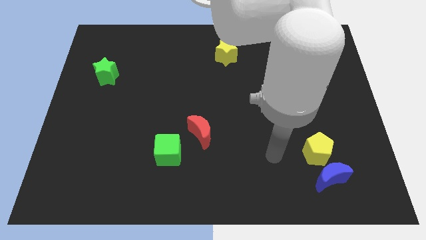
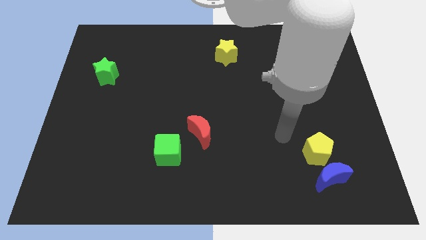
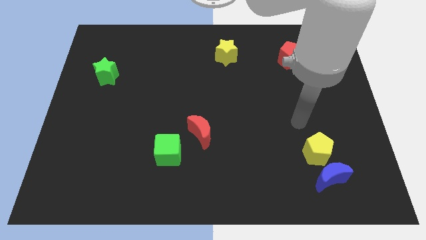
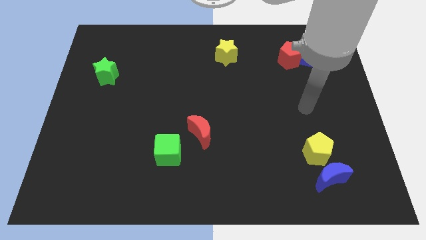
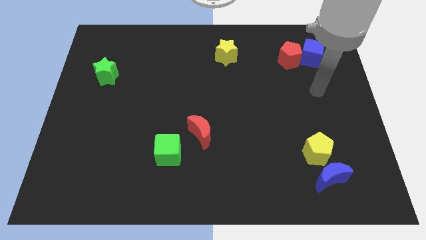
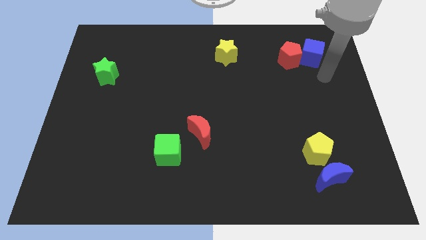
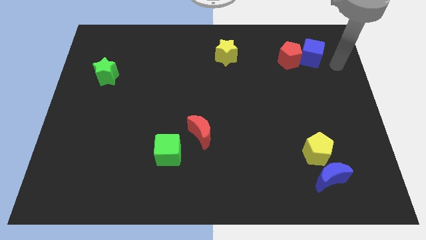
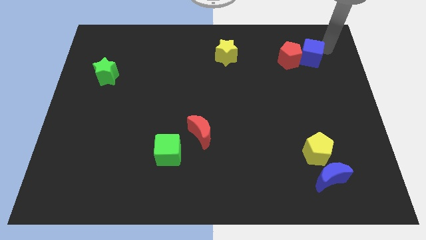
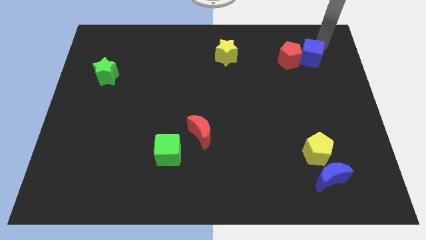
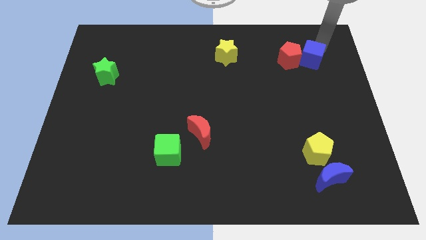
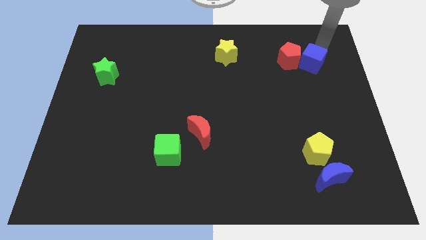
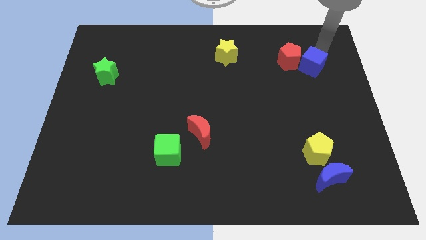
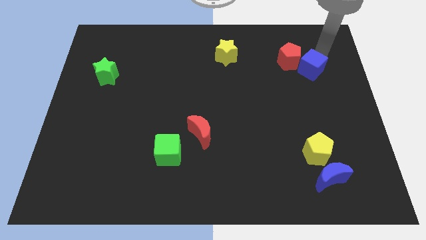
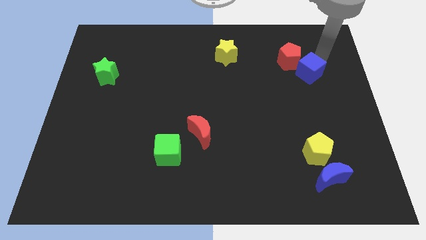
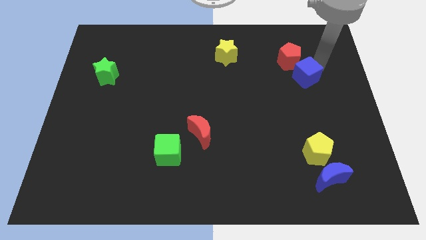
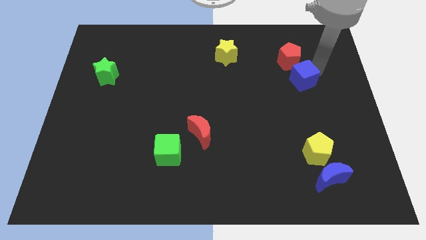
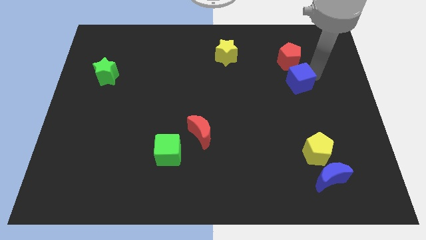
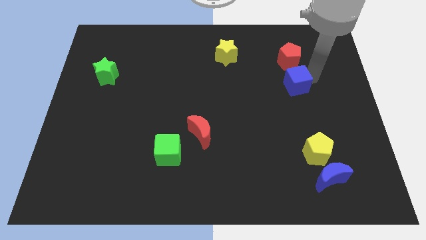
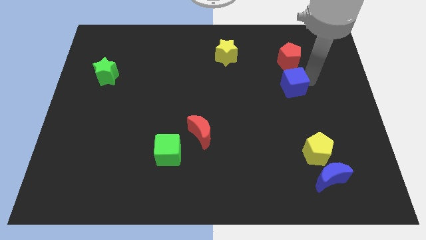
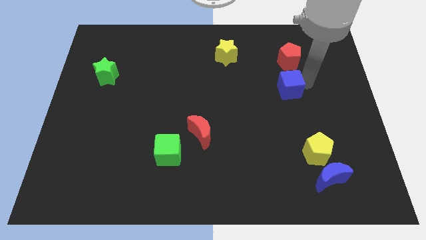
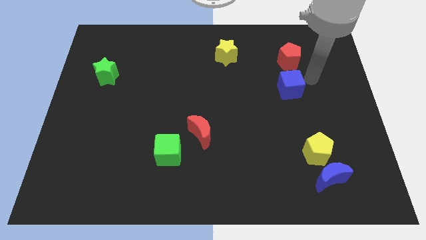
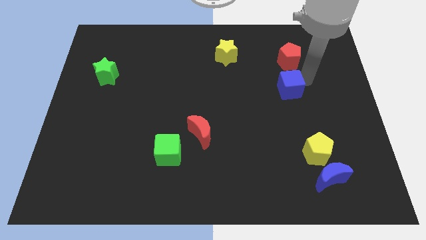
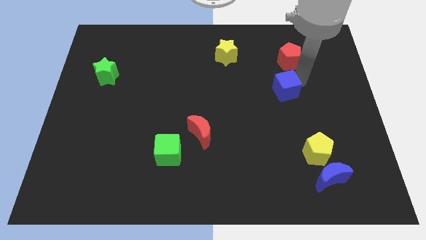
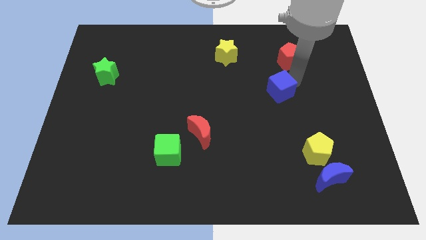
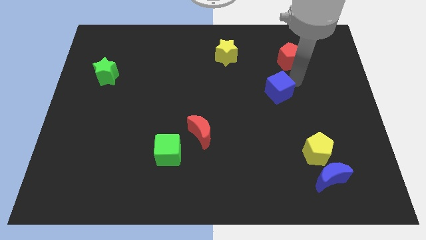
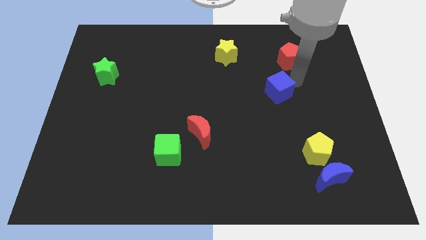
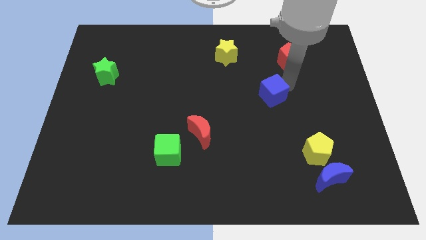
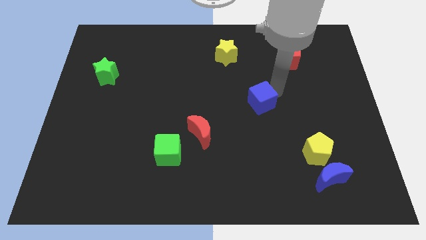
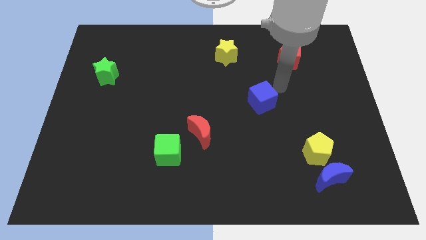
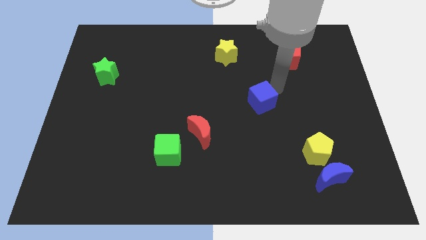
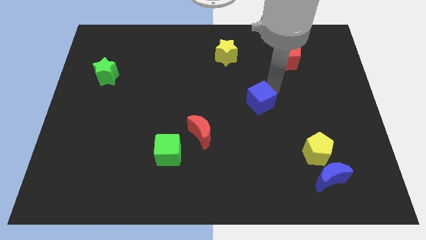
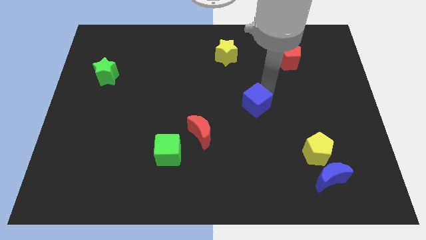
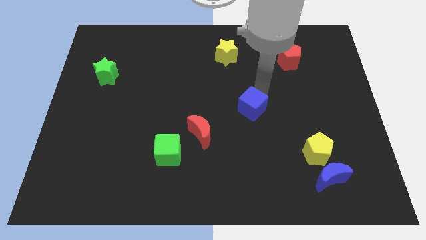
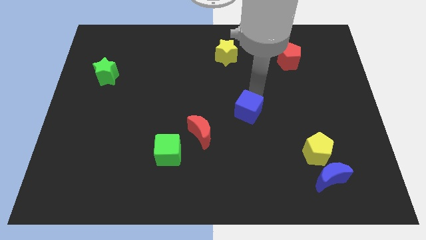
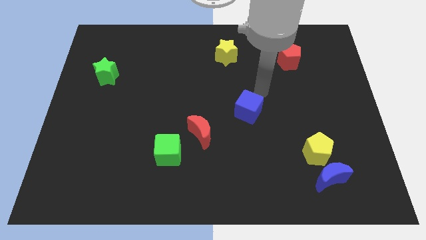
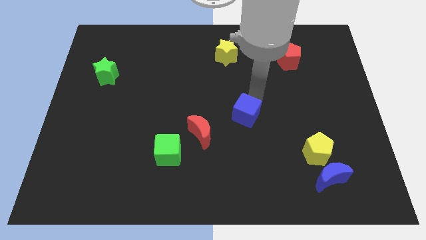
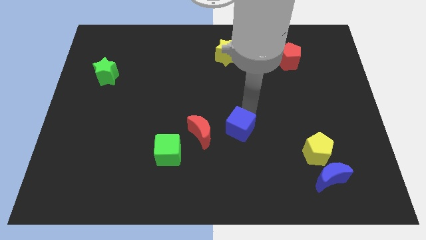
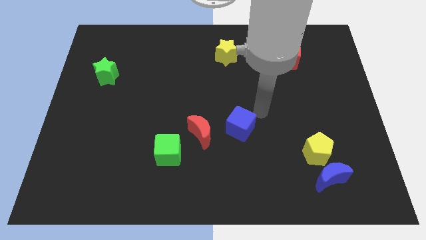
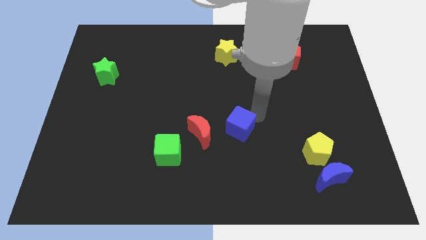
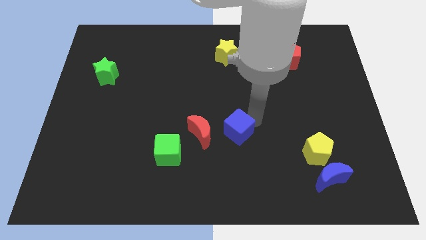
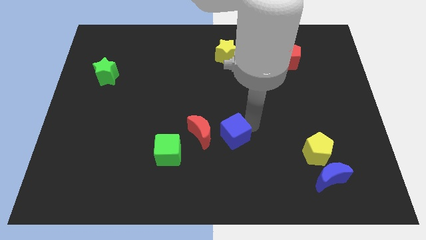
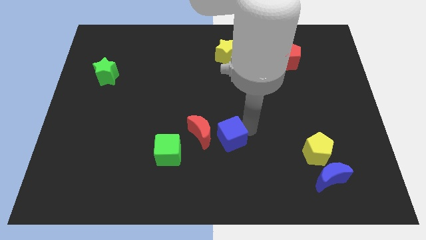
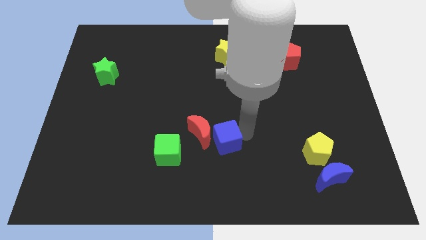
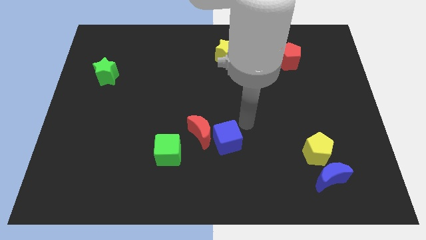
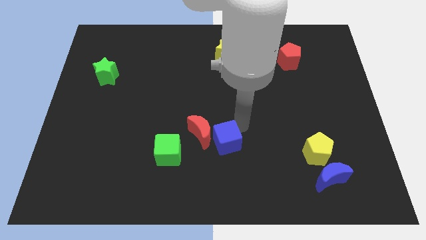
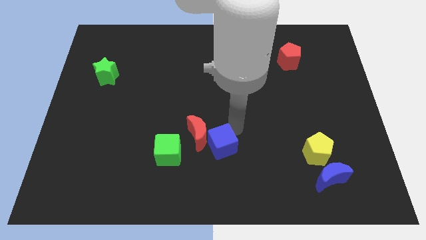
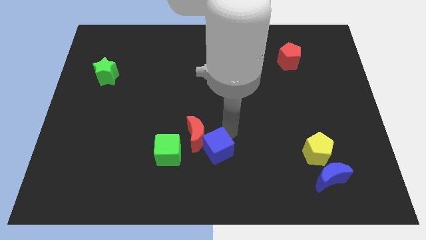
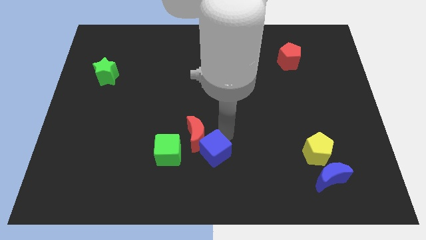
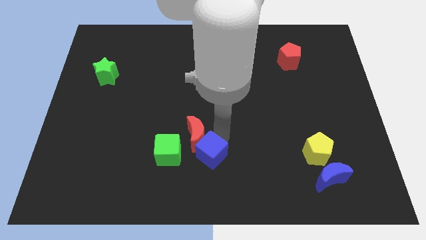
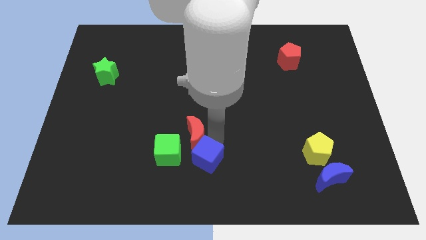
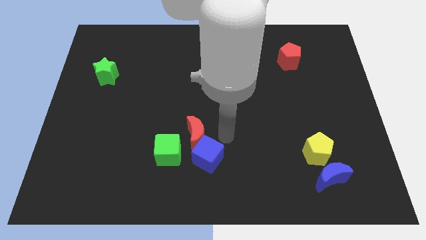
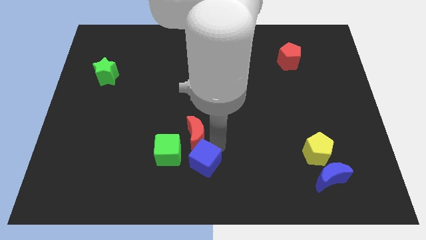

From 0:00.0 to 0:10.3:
push the blue cube to the bottom right of the green cube

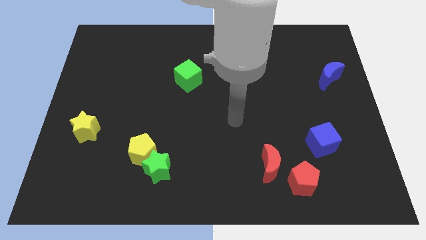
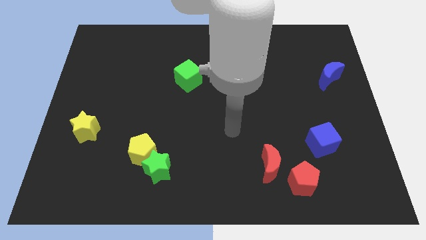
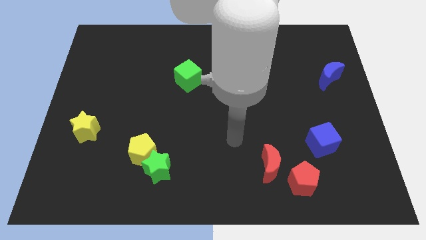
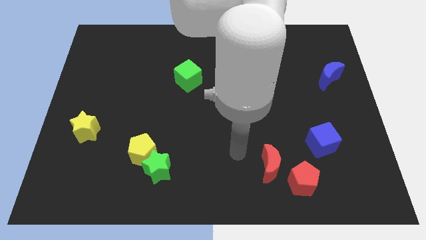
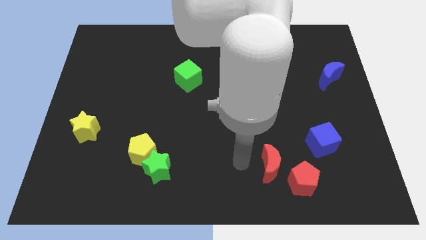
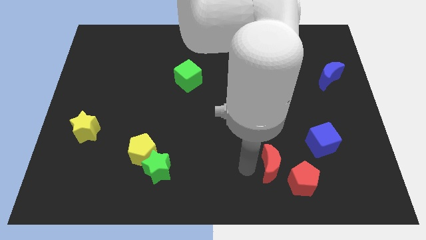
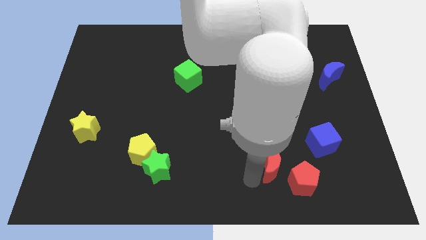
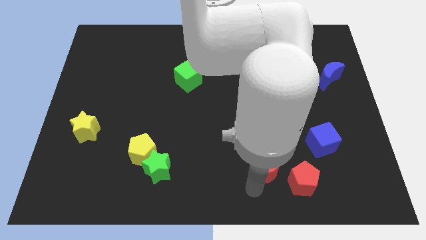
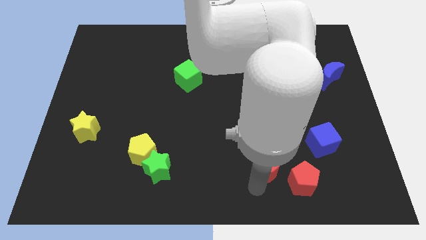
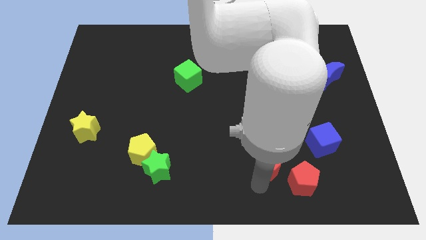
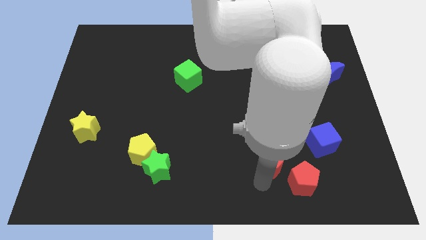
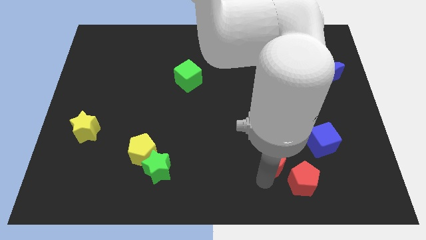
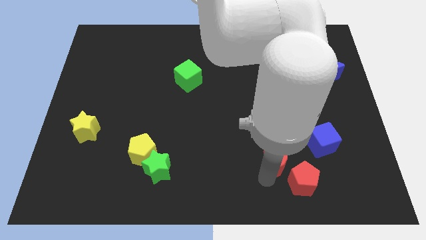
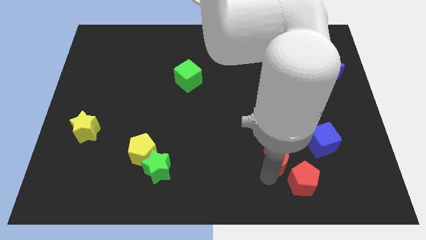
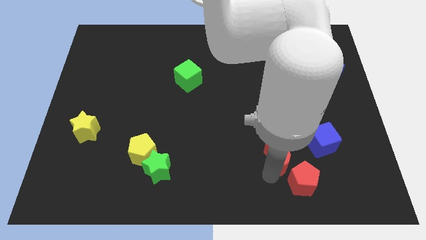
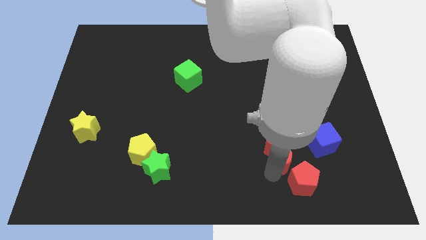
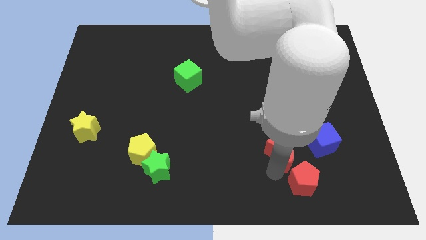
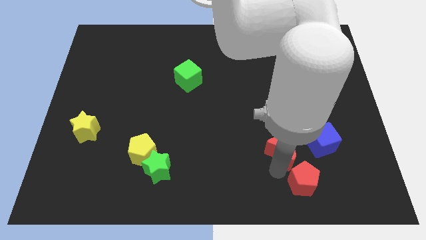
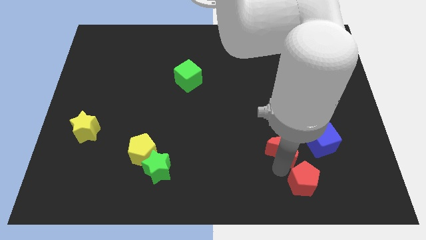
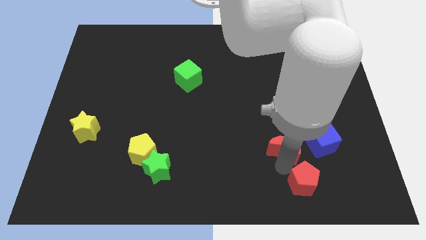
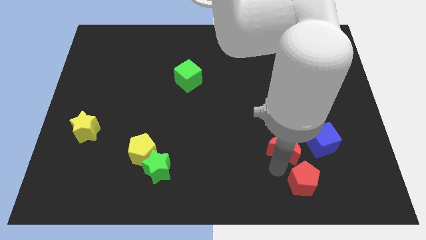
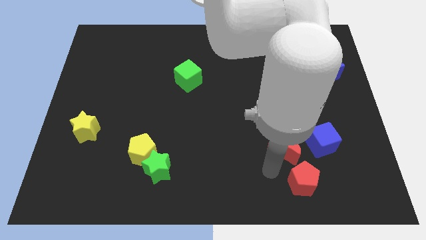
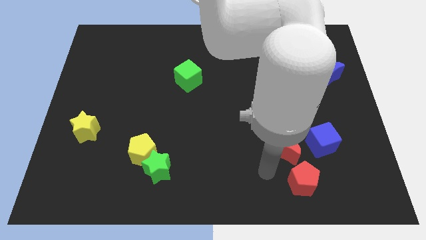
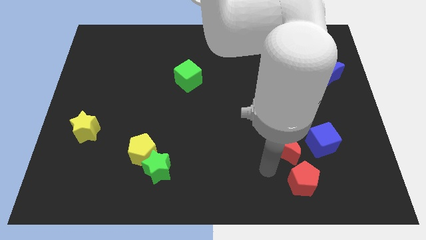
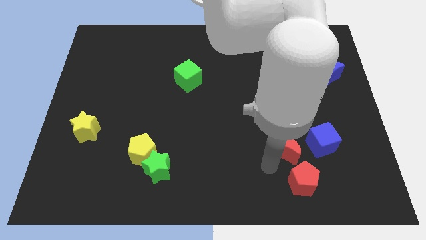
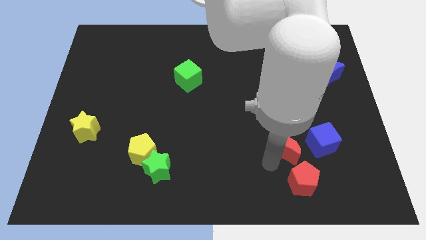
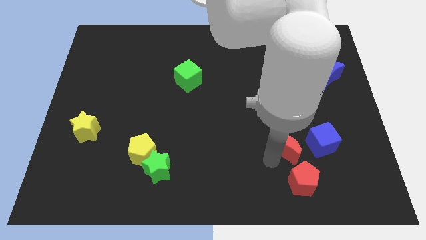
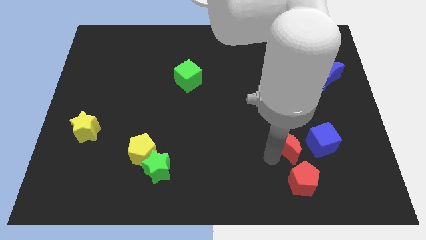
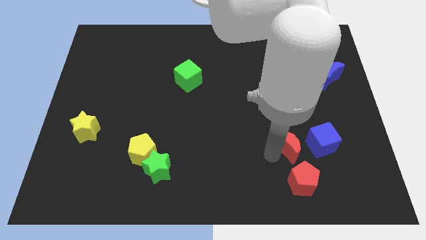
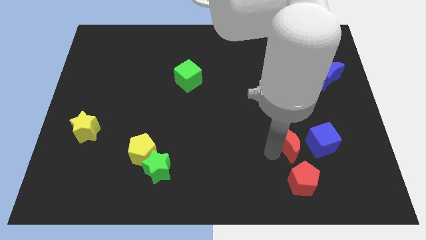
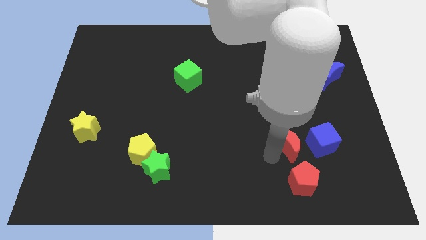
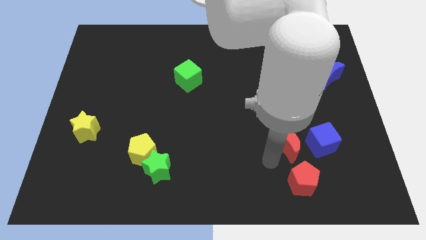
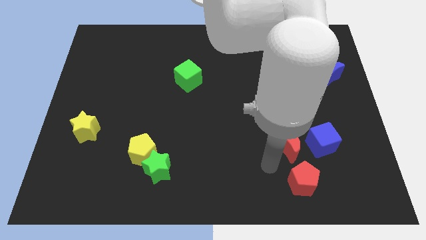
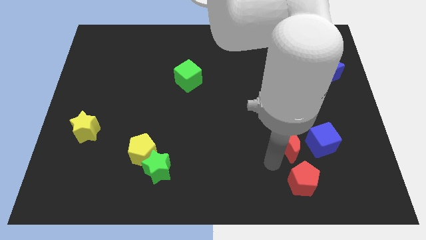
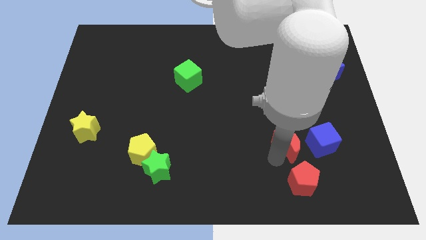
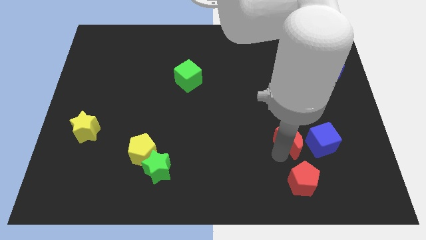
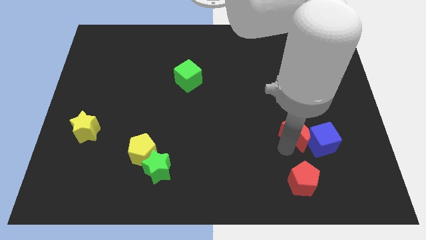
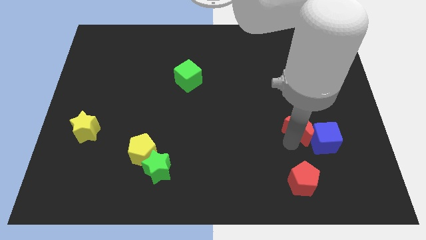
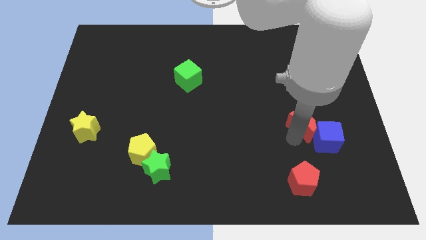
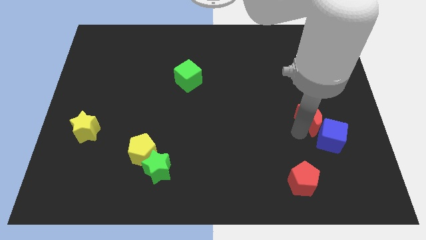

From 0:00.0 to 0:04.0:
move the red moon to the top of the blue cube
